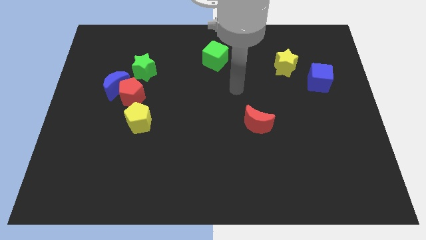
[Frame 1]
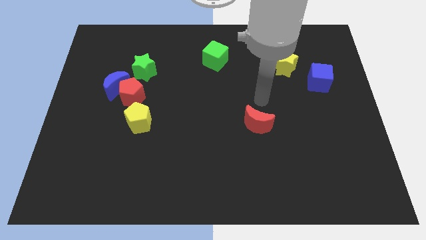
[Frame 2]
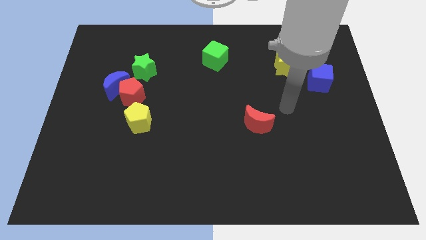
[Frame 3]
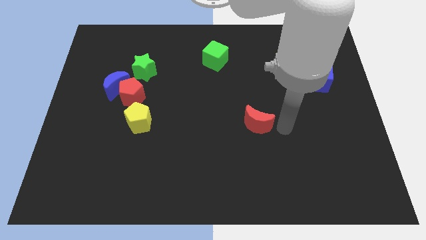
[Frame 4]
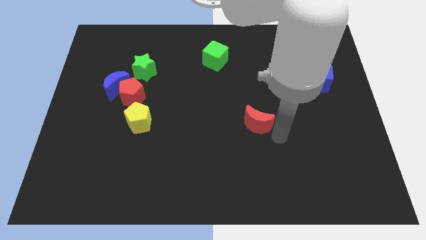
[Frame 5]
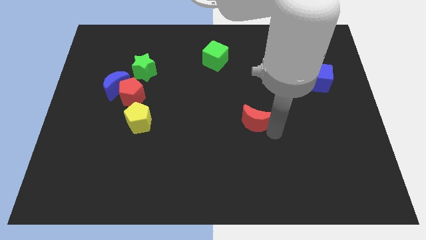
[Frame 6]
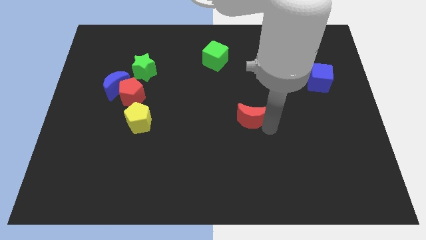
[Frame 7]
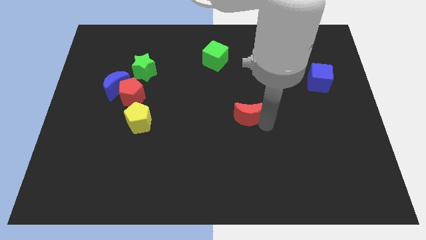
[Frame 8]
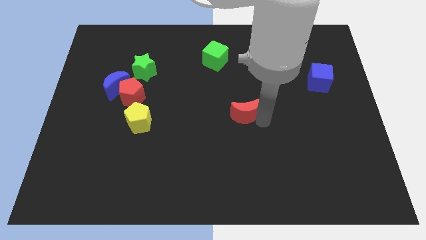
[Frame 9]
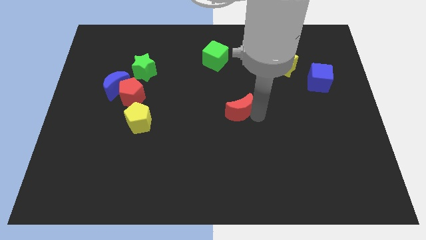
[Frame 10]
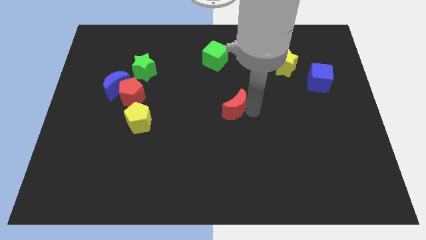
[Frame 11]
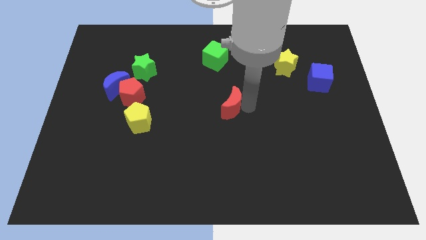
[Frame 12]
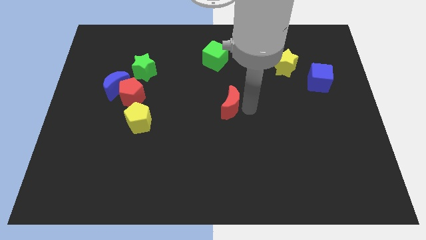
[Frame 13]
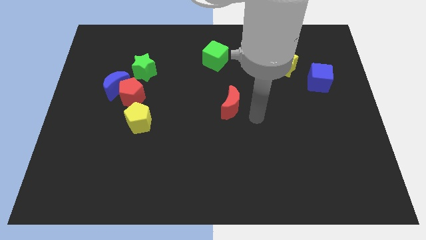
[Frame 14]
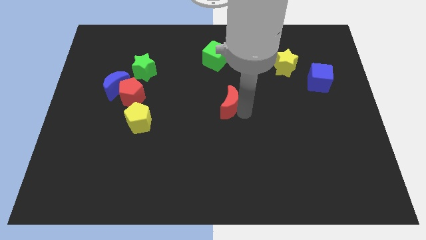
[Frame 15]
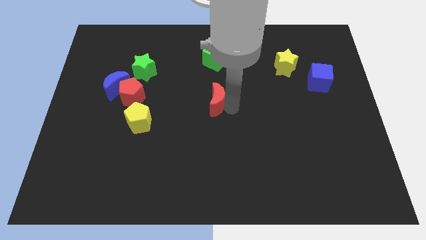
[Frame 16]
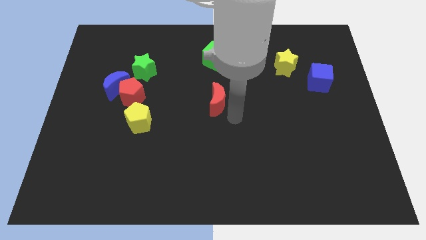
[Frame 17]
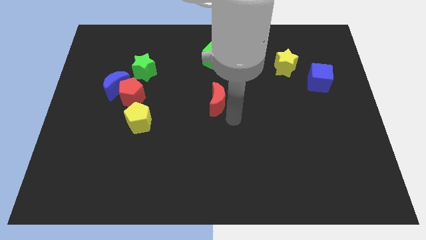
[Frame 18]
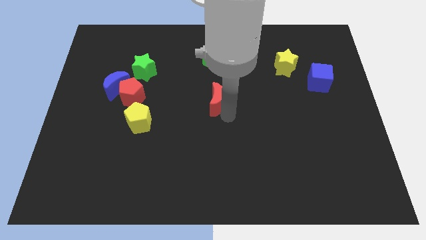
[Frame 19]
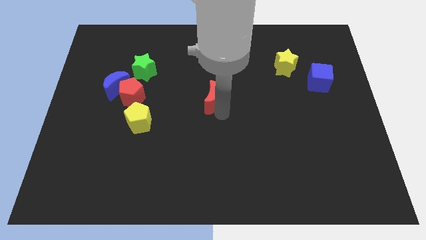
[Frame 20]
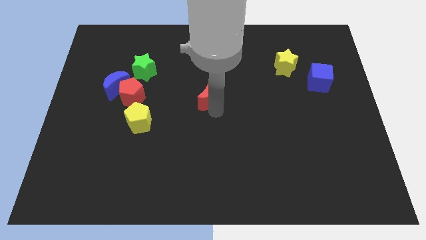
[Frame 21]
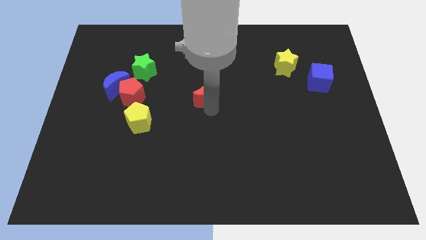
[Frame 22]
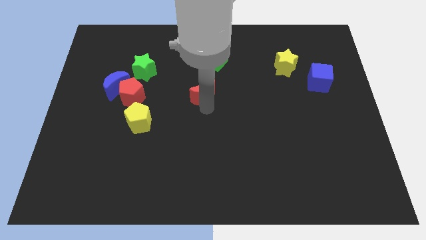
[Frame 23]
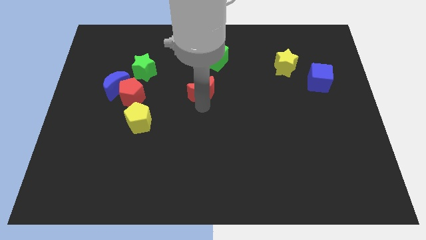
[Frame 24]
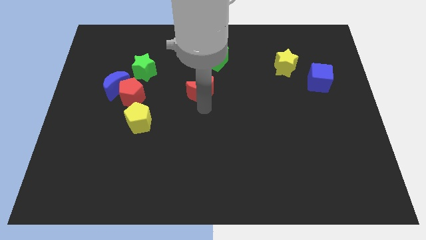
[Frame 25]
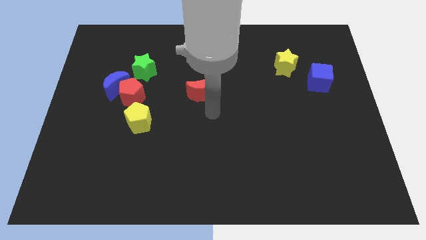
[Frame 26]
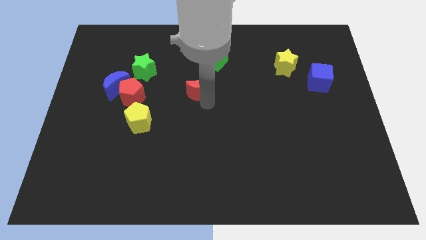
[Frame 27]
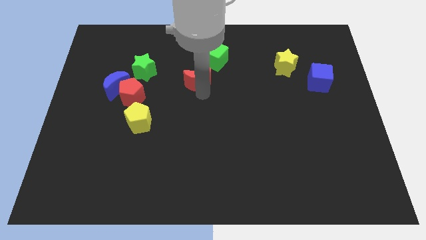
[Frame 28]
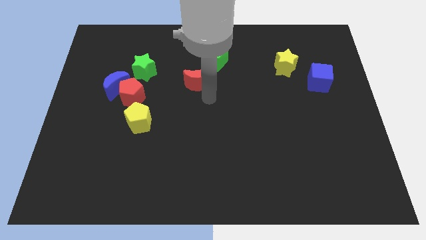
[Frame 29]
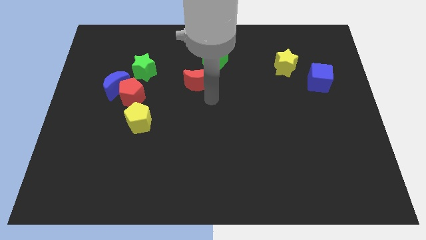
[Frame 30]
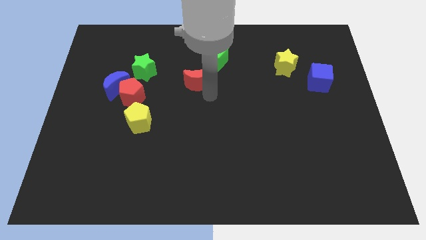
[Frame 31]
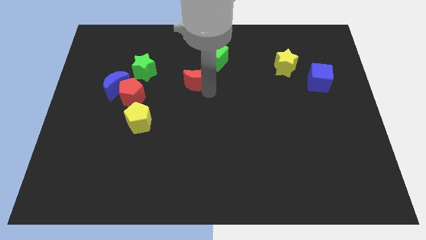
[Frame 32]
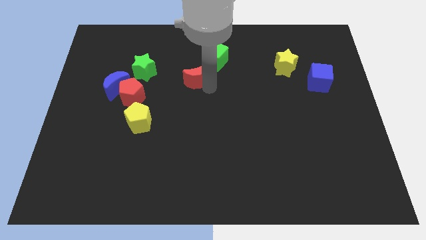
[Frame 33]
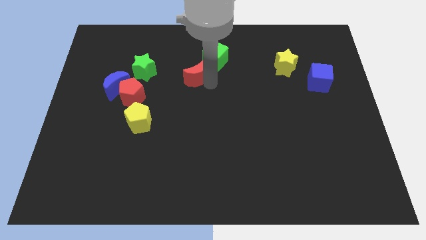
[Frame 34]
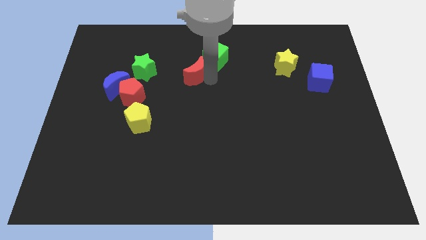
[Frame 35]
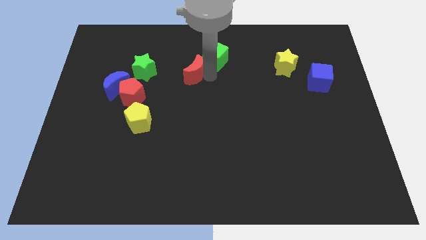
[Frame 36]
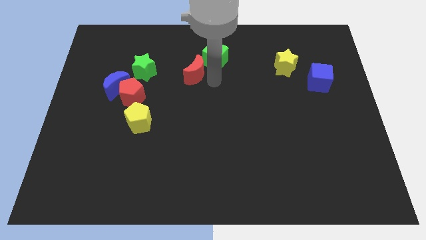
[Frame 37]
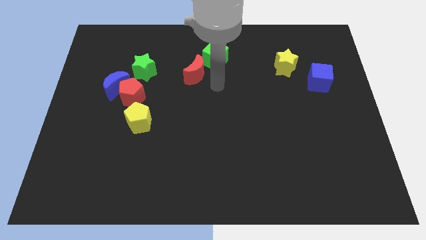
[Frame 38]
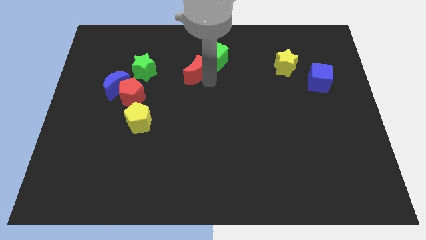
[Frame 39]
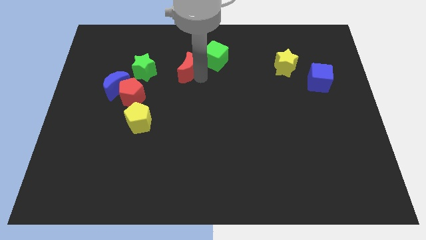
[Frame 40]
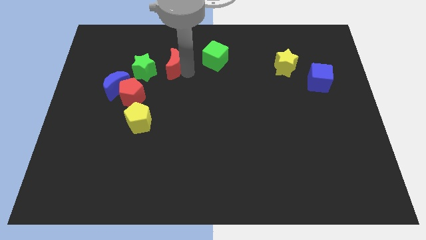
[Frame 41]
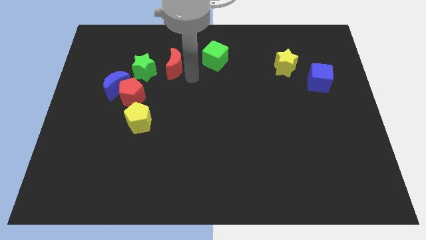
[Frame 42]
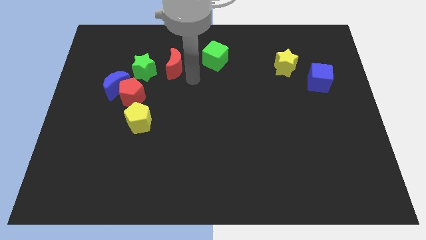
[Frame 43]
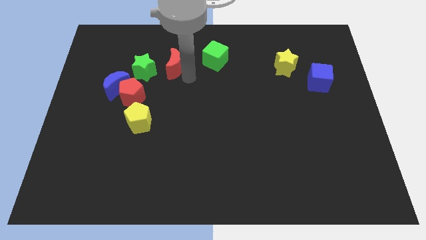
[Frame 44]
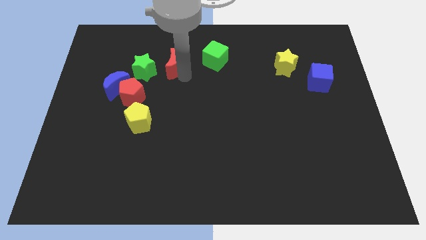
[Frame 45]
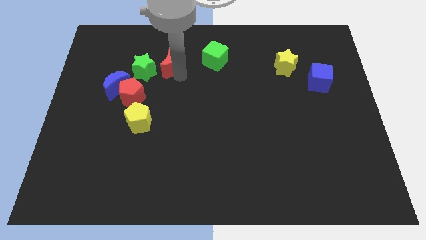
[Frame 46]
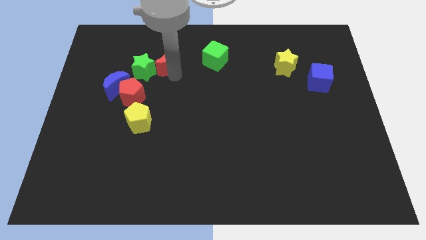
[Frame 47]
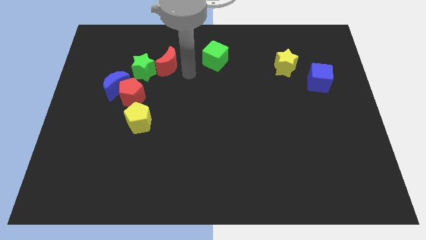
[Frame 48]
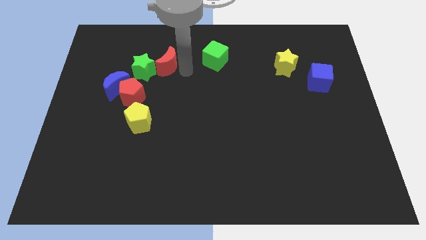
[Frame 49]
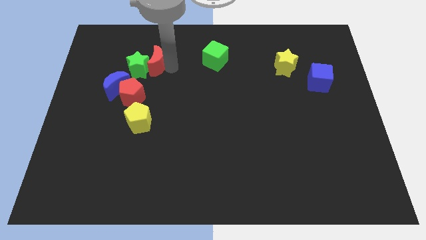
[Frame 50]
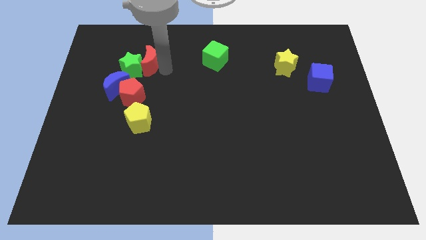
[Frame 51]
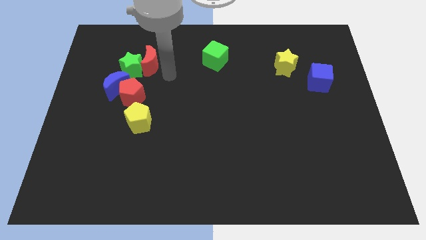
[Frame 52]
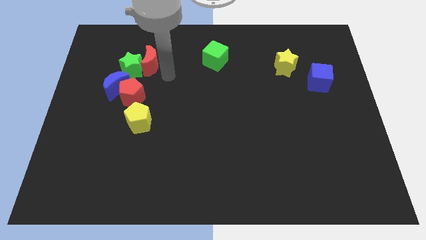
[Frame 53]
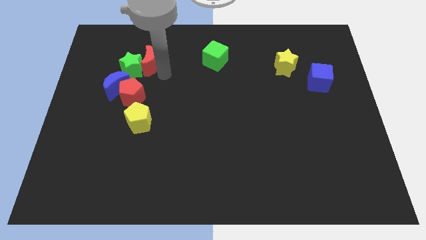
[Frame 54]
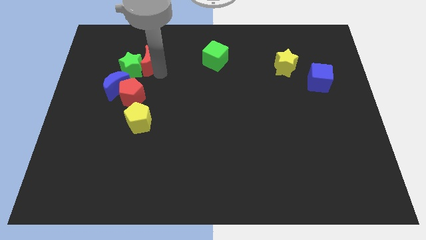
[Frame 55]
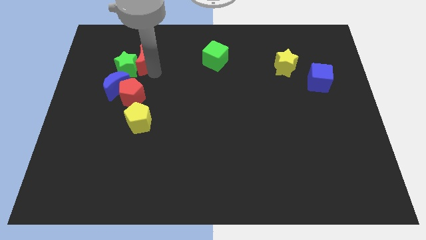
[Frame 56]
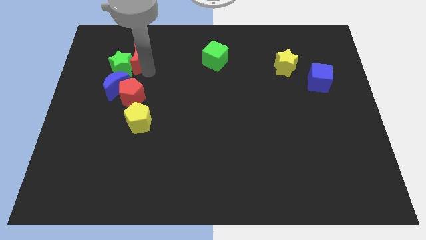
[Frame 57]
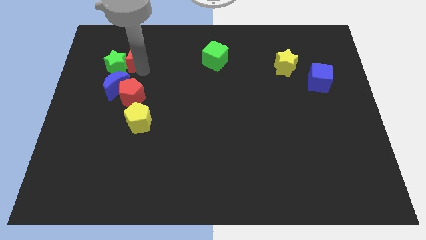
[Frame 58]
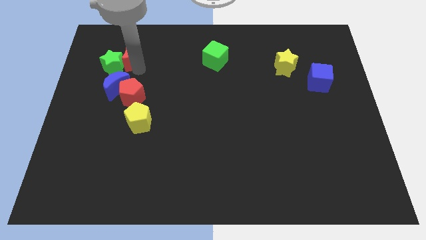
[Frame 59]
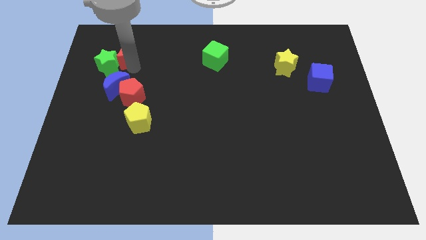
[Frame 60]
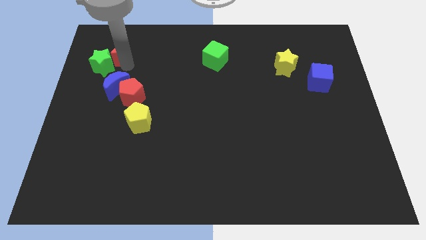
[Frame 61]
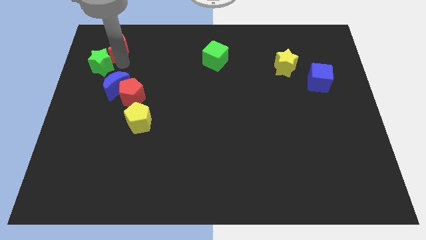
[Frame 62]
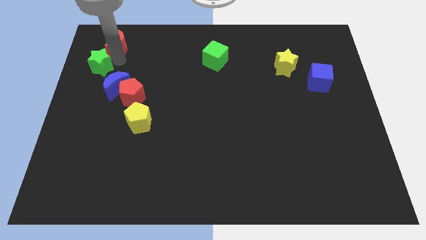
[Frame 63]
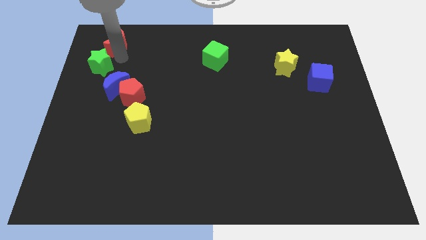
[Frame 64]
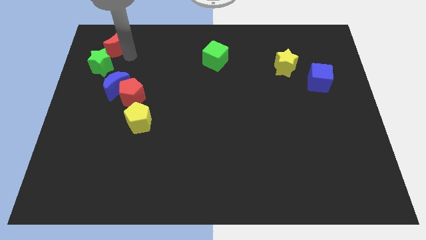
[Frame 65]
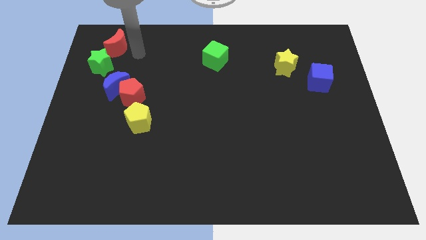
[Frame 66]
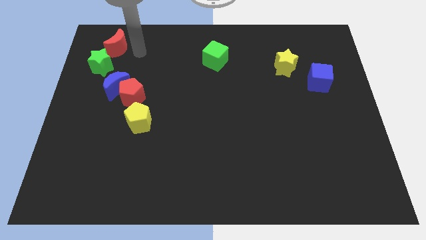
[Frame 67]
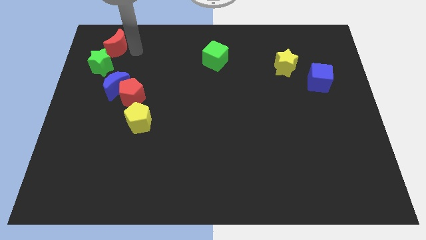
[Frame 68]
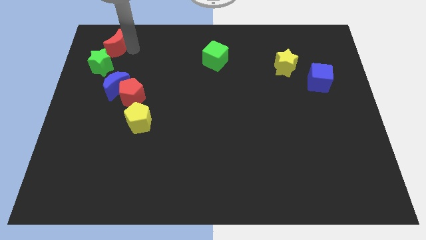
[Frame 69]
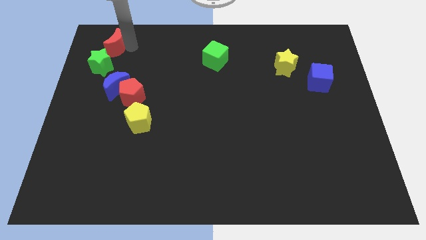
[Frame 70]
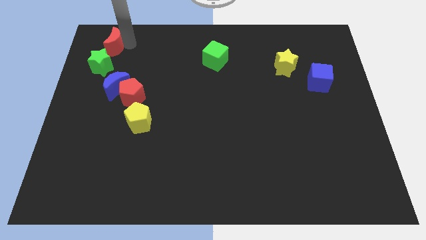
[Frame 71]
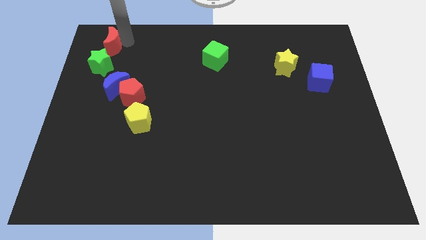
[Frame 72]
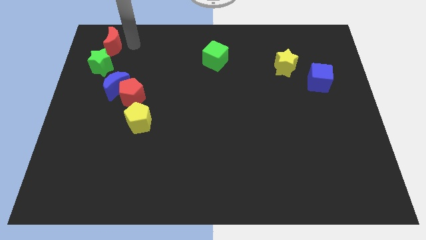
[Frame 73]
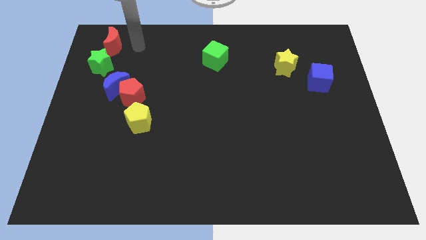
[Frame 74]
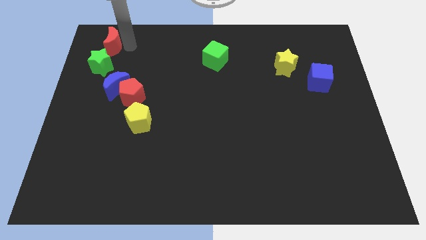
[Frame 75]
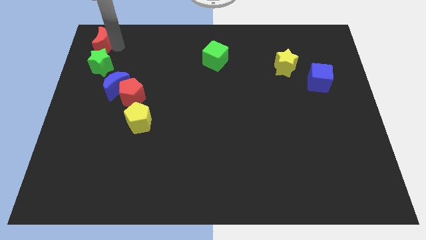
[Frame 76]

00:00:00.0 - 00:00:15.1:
push the red moon to the top left corner
